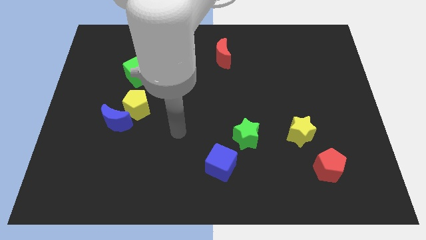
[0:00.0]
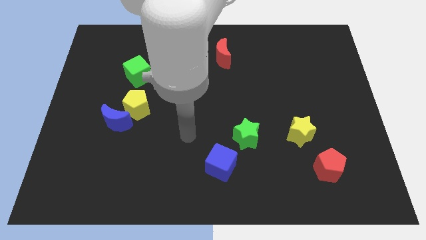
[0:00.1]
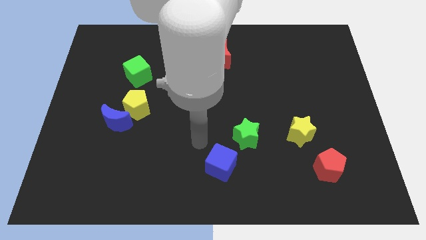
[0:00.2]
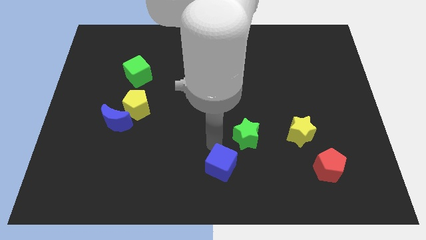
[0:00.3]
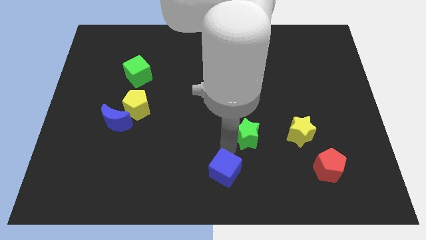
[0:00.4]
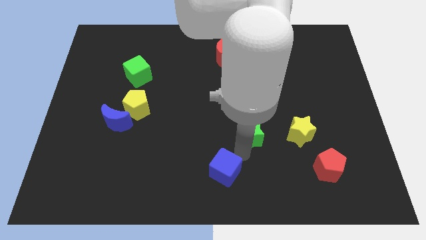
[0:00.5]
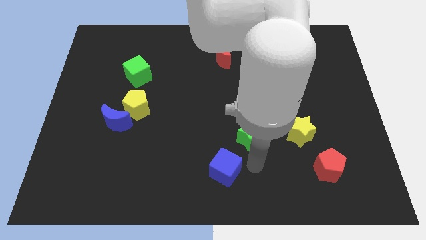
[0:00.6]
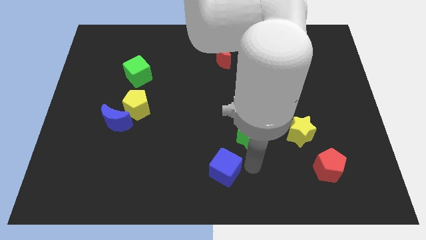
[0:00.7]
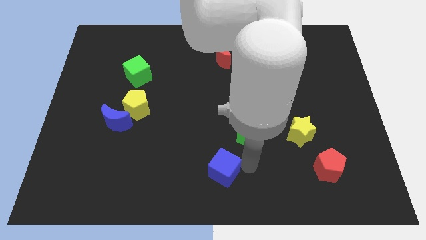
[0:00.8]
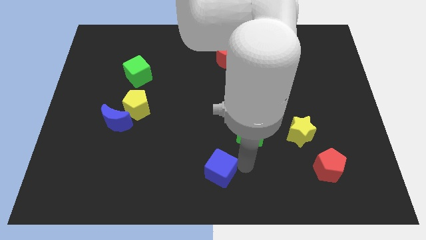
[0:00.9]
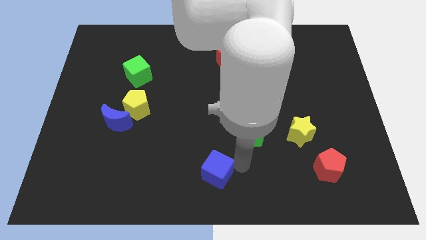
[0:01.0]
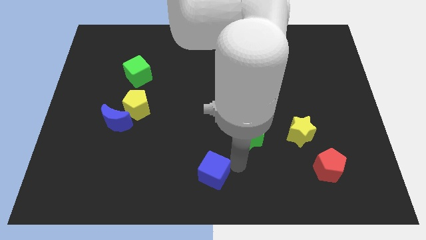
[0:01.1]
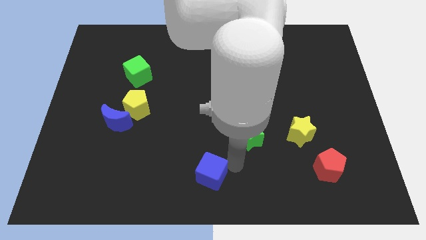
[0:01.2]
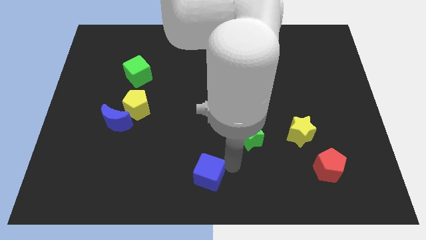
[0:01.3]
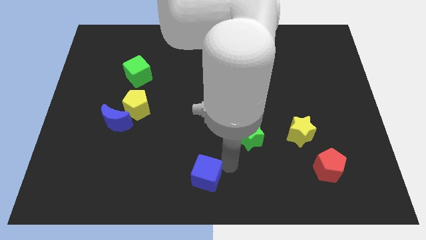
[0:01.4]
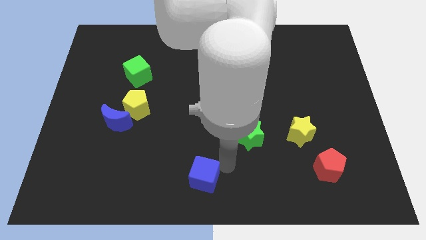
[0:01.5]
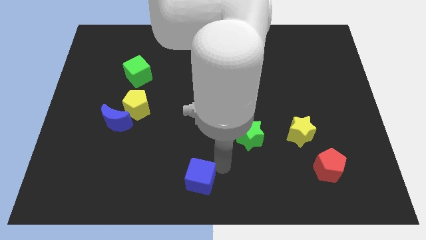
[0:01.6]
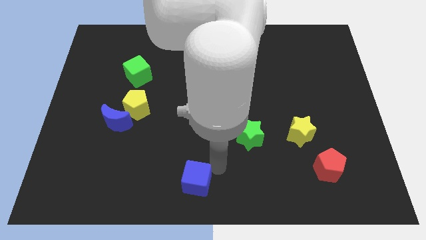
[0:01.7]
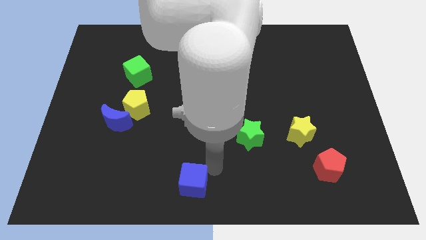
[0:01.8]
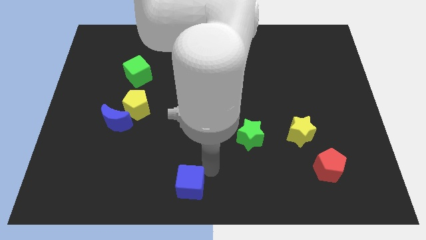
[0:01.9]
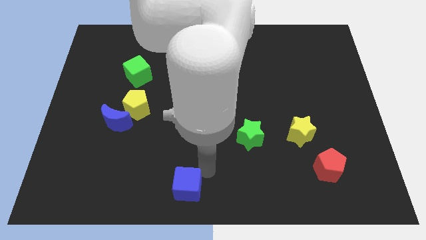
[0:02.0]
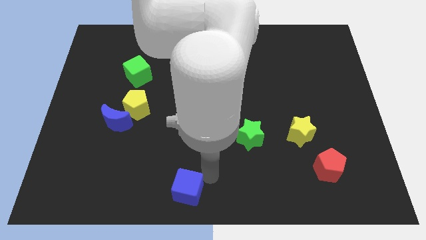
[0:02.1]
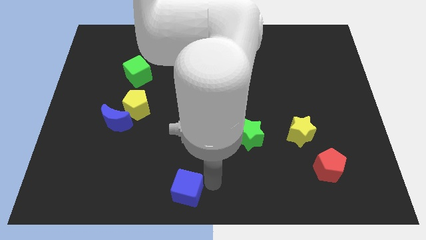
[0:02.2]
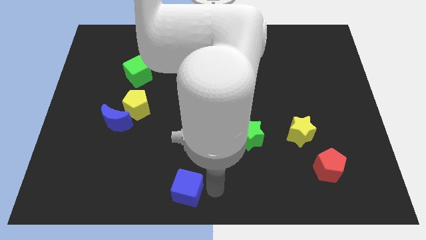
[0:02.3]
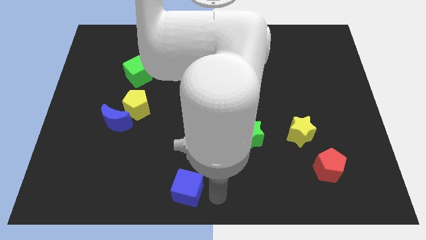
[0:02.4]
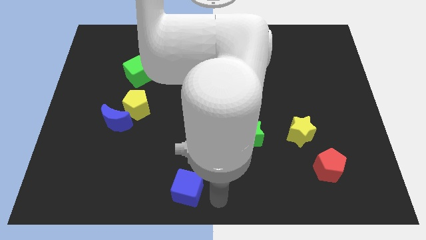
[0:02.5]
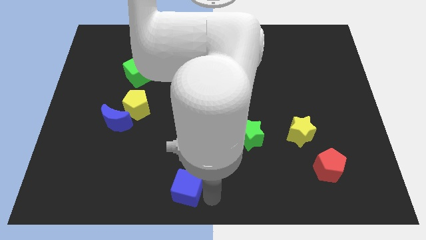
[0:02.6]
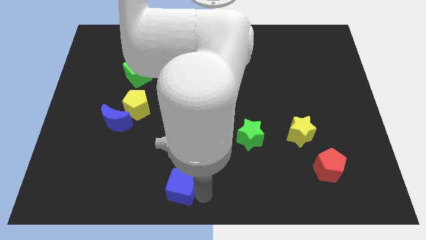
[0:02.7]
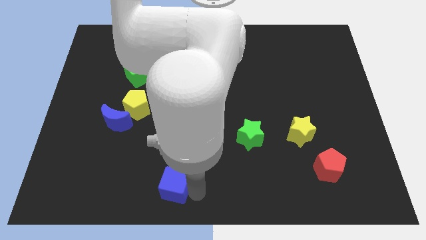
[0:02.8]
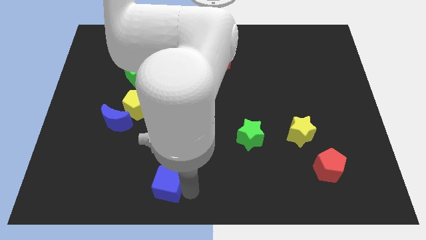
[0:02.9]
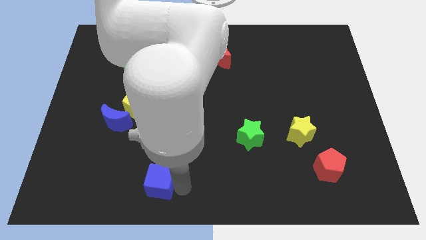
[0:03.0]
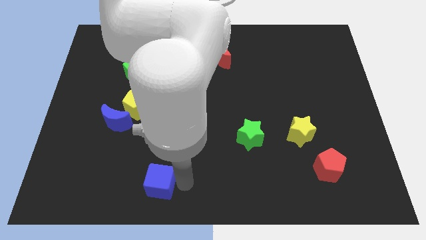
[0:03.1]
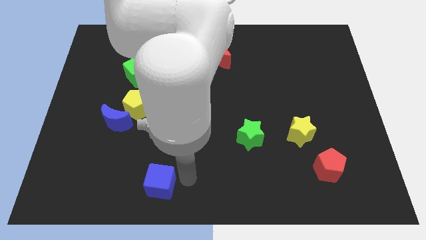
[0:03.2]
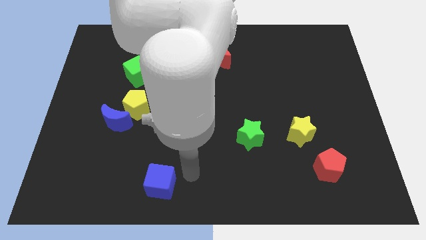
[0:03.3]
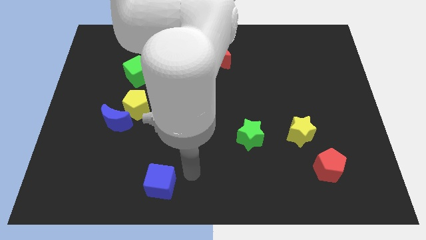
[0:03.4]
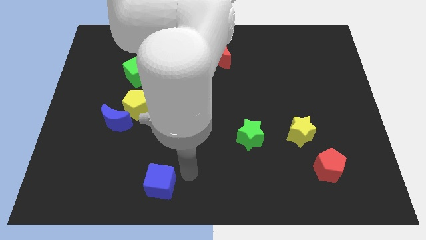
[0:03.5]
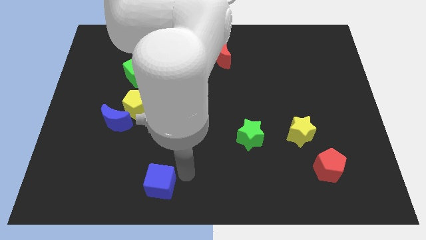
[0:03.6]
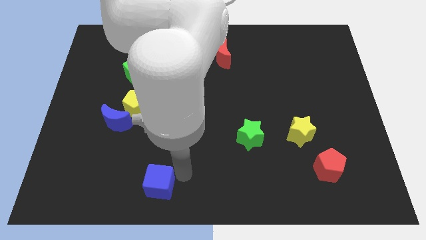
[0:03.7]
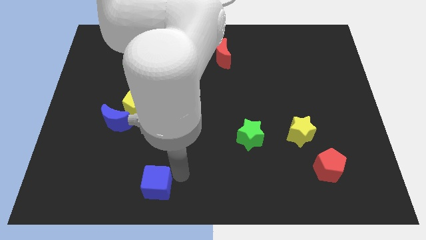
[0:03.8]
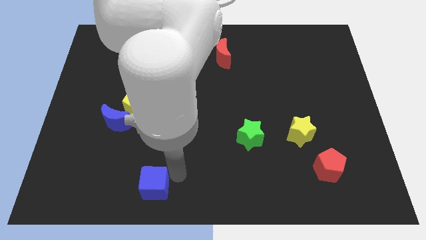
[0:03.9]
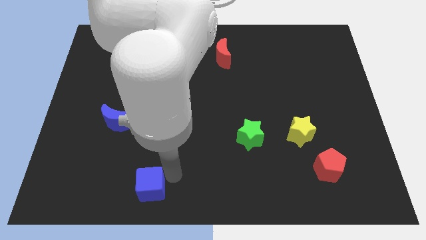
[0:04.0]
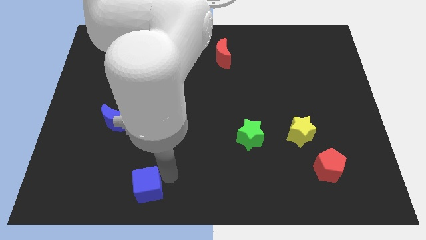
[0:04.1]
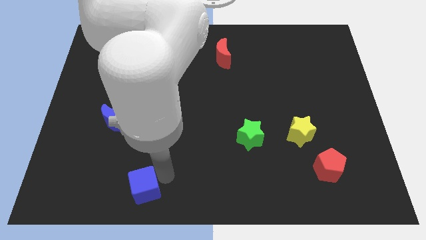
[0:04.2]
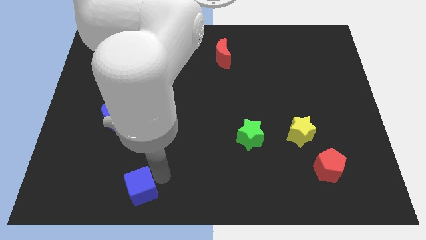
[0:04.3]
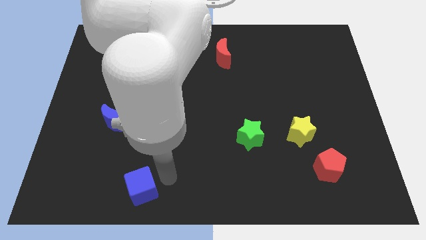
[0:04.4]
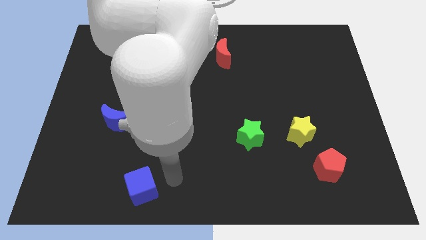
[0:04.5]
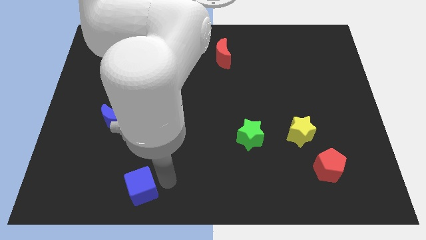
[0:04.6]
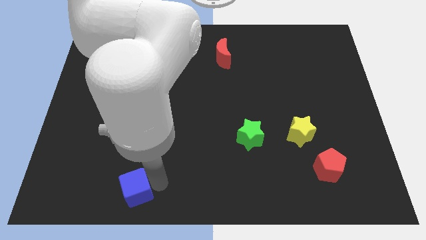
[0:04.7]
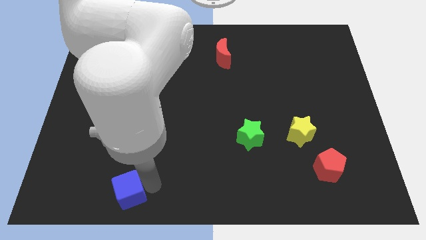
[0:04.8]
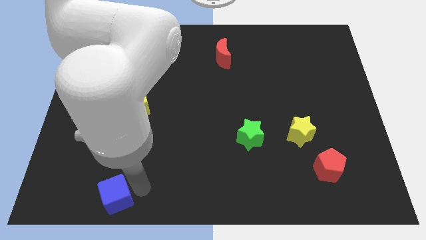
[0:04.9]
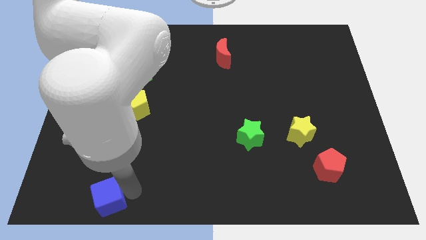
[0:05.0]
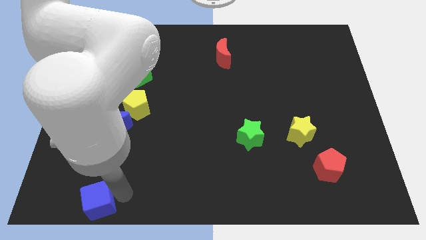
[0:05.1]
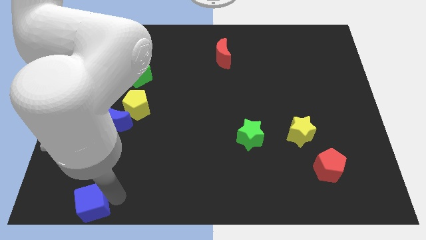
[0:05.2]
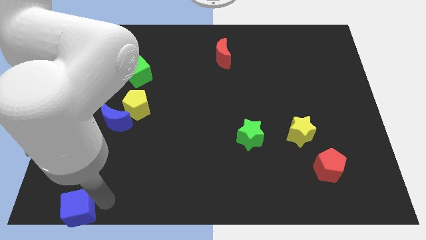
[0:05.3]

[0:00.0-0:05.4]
slide the blue cube to the bottom left of the board

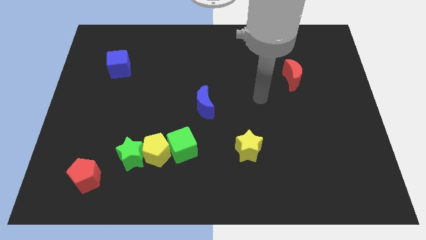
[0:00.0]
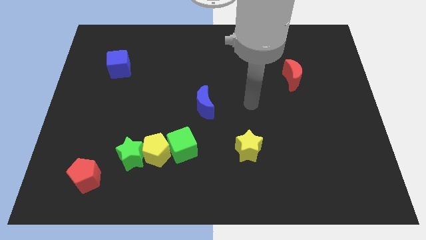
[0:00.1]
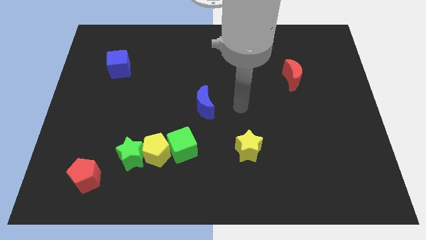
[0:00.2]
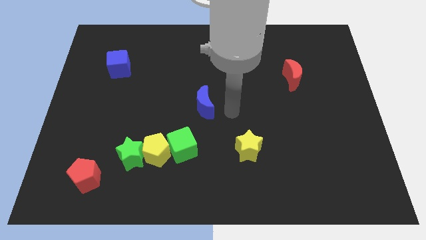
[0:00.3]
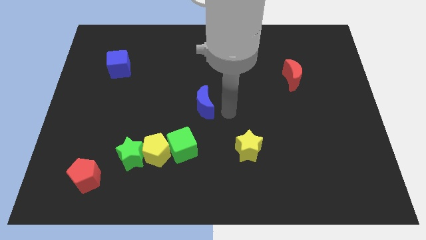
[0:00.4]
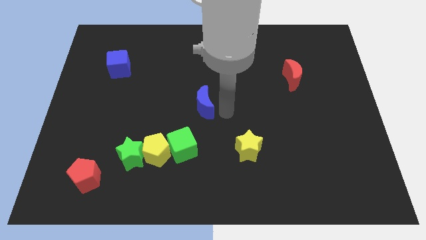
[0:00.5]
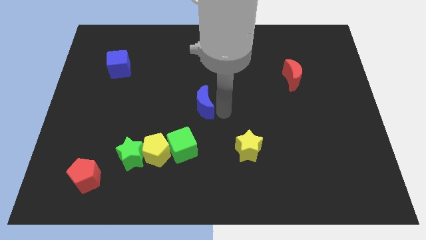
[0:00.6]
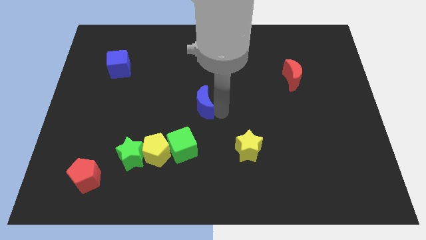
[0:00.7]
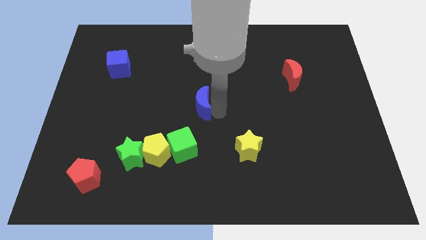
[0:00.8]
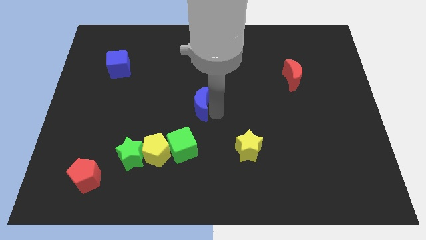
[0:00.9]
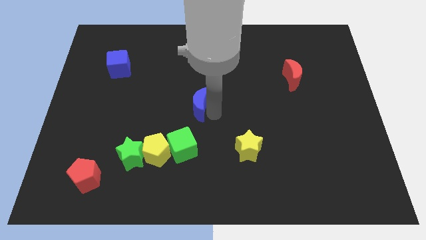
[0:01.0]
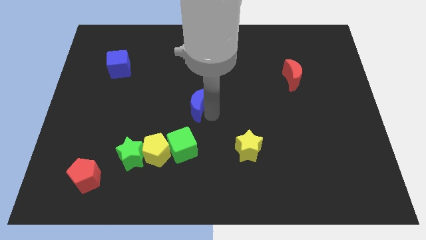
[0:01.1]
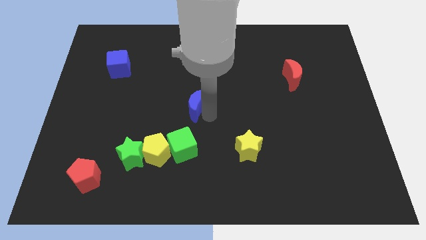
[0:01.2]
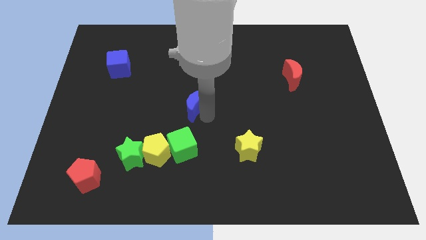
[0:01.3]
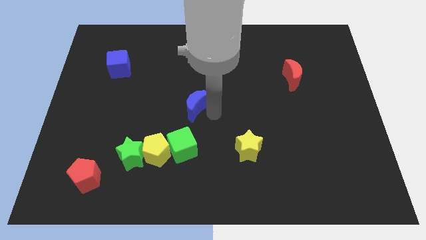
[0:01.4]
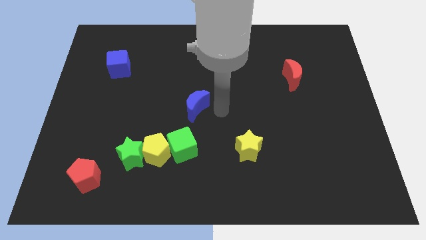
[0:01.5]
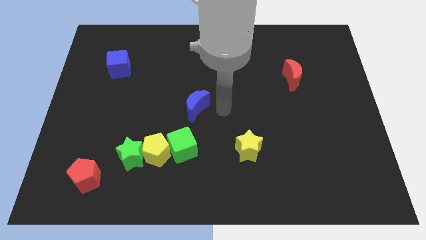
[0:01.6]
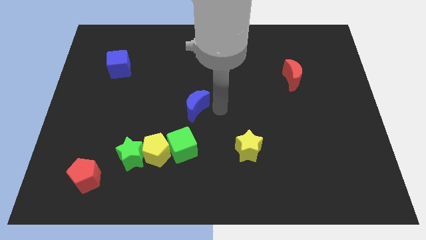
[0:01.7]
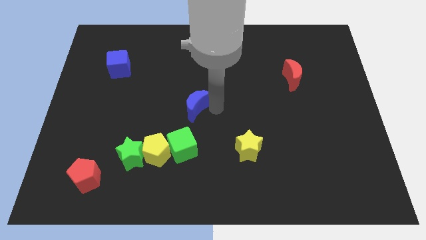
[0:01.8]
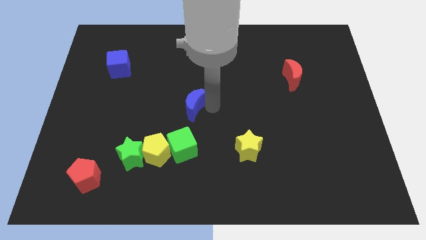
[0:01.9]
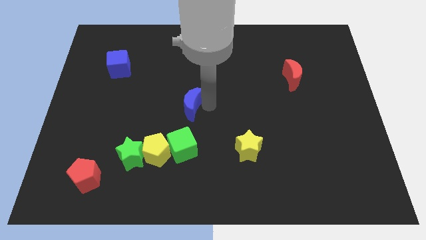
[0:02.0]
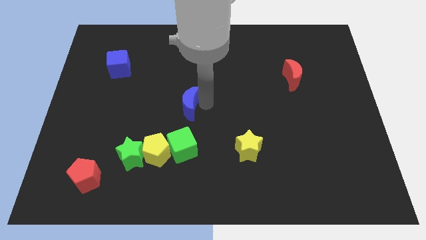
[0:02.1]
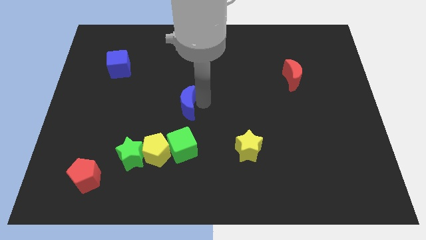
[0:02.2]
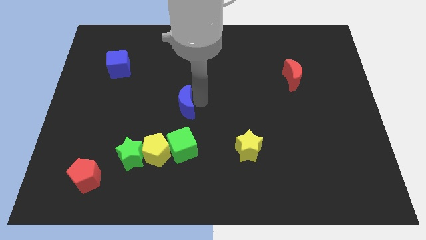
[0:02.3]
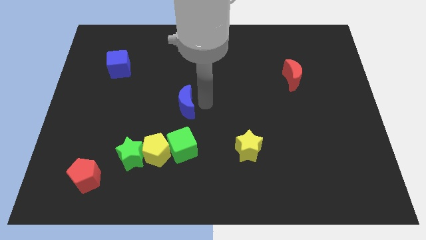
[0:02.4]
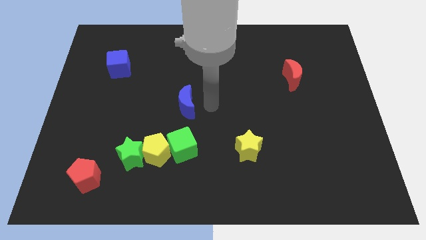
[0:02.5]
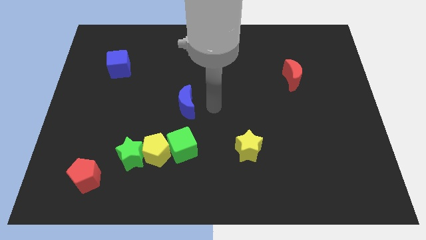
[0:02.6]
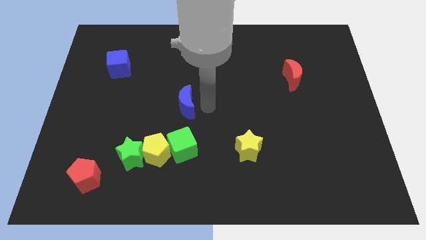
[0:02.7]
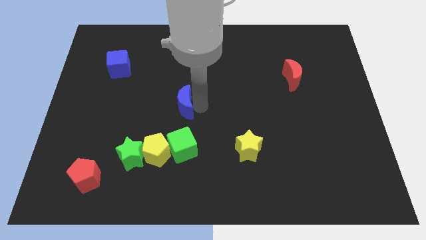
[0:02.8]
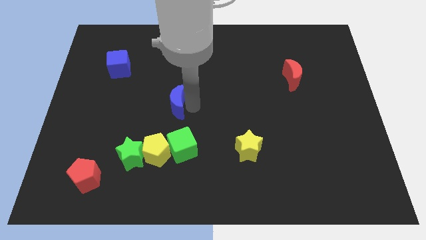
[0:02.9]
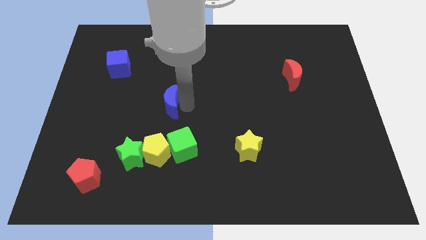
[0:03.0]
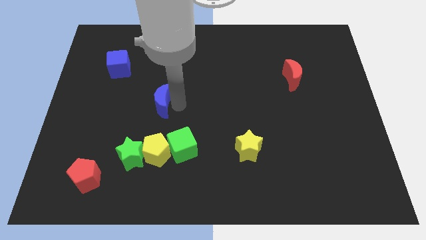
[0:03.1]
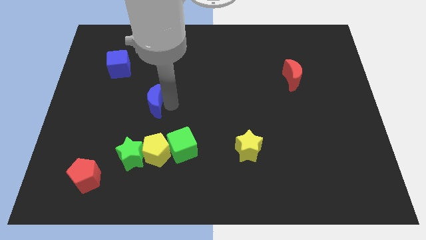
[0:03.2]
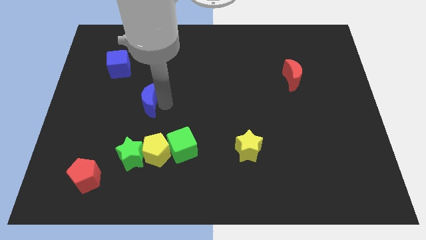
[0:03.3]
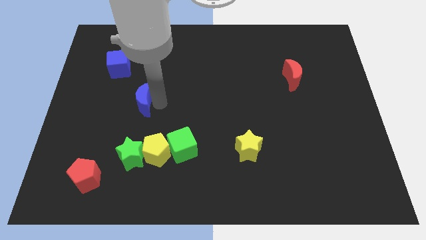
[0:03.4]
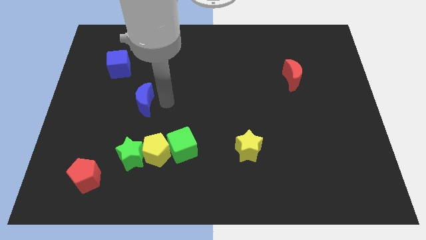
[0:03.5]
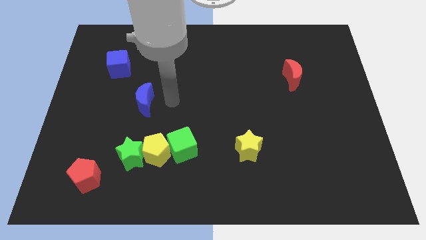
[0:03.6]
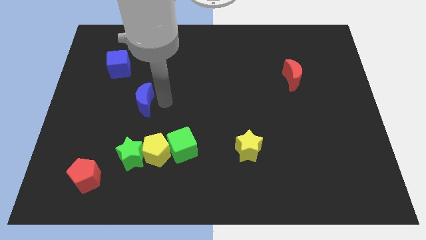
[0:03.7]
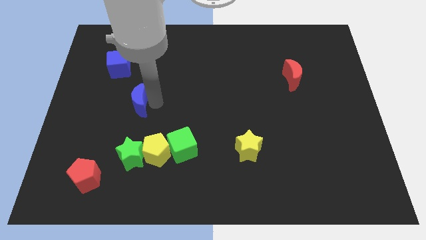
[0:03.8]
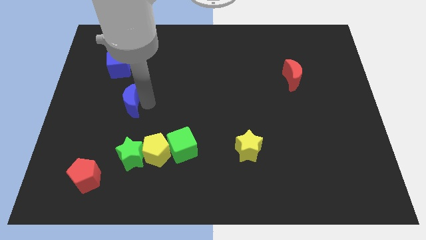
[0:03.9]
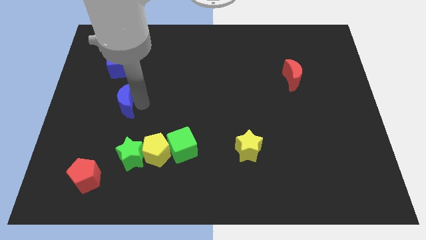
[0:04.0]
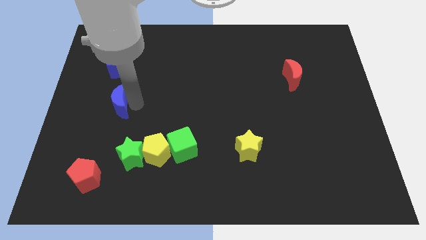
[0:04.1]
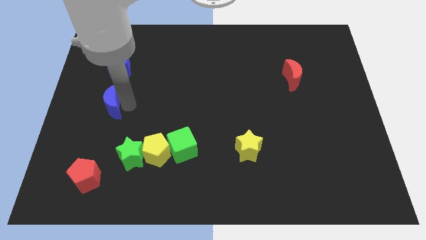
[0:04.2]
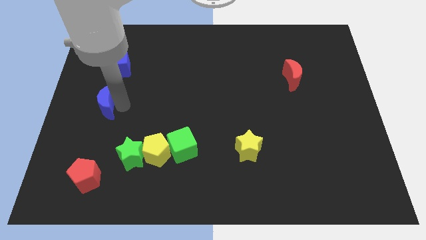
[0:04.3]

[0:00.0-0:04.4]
push the blue moon to the center left
